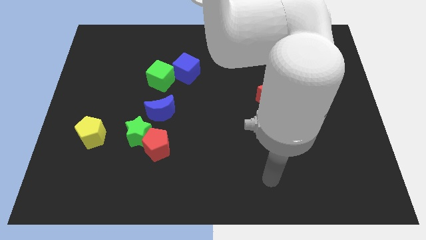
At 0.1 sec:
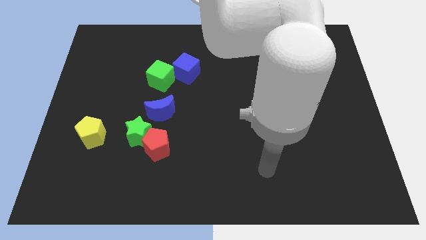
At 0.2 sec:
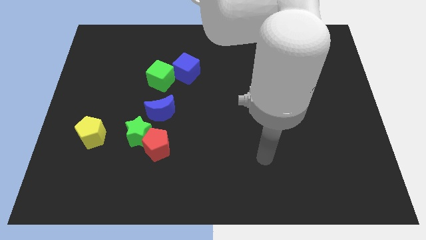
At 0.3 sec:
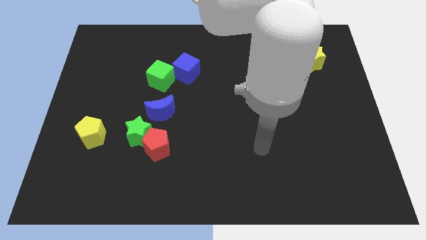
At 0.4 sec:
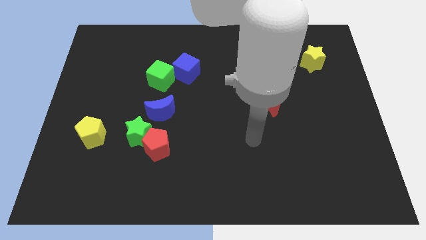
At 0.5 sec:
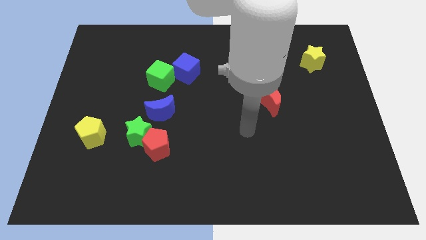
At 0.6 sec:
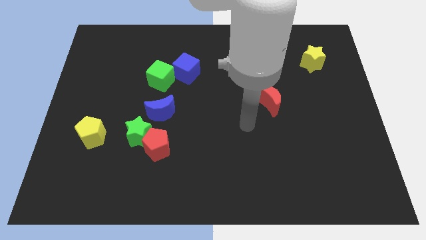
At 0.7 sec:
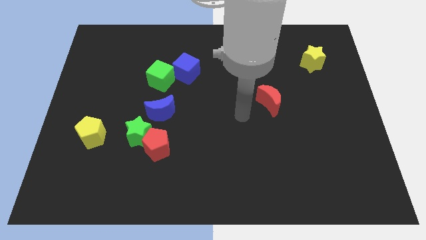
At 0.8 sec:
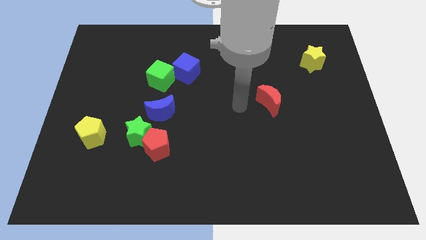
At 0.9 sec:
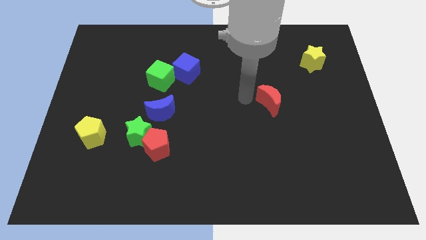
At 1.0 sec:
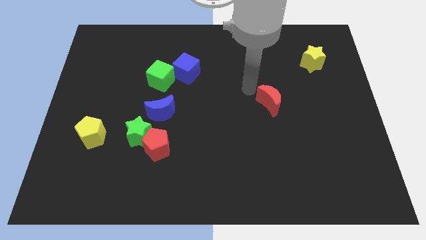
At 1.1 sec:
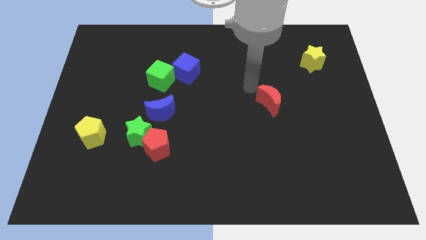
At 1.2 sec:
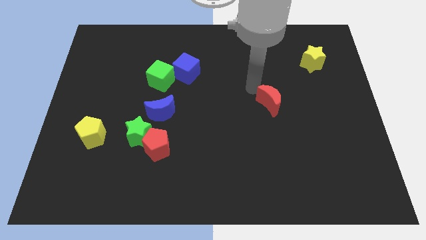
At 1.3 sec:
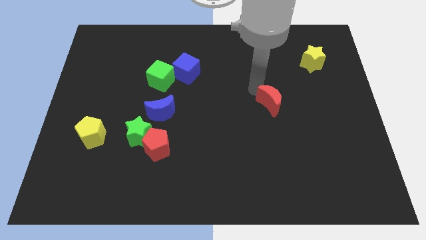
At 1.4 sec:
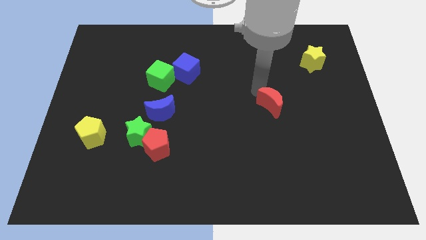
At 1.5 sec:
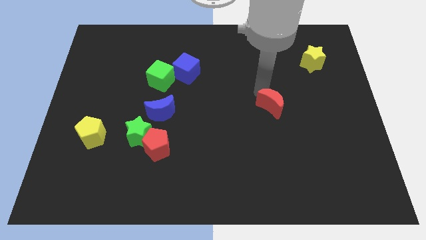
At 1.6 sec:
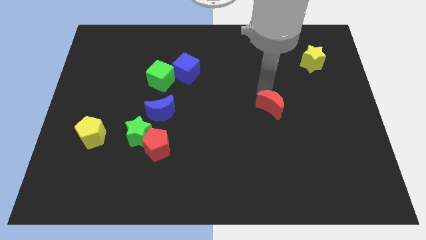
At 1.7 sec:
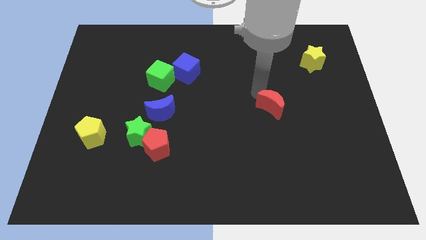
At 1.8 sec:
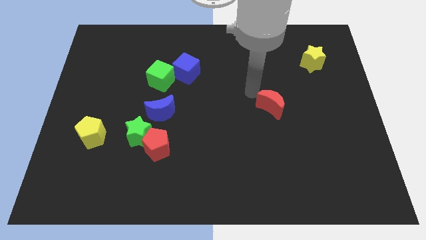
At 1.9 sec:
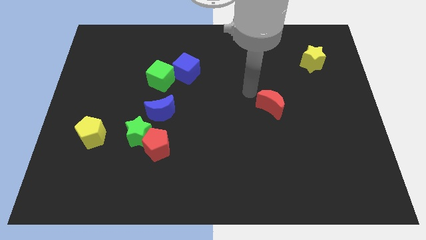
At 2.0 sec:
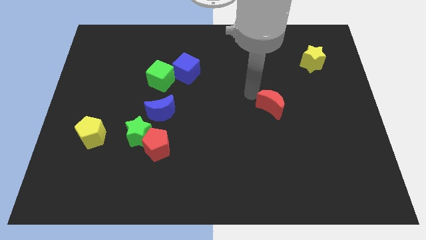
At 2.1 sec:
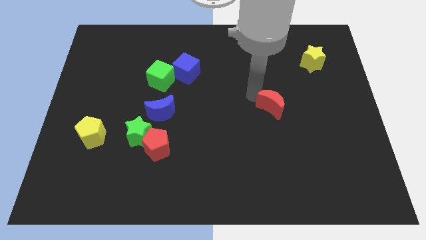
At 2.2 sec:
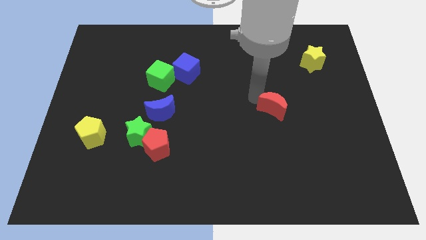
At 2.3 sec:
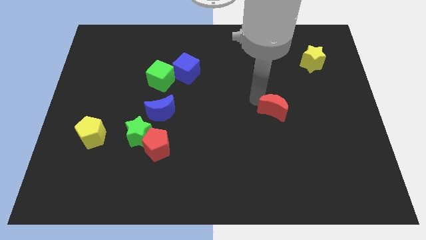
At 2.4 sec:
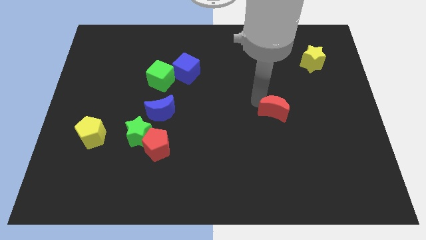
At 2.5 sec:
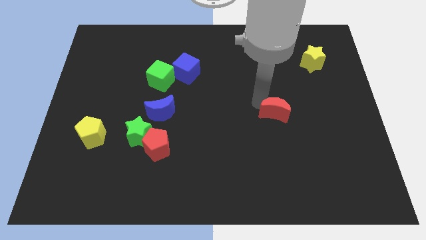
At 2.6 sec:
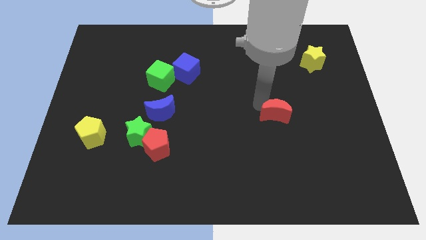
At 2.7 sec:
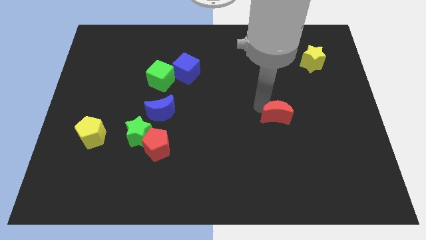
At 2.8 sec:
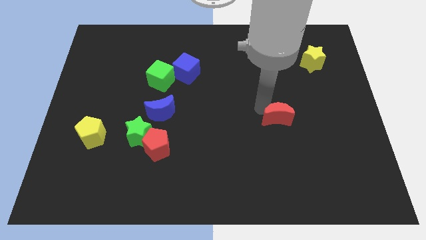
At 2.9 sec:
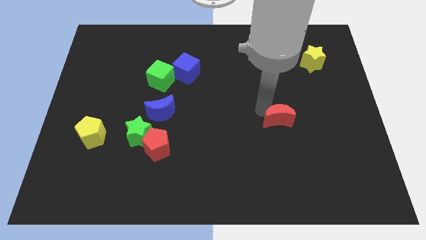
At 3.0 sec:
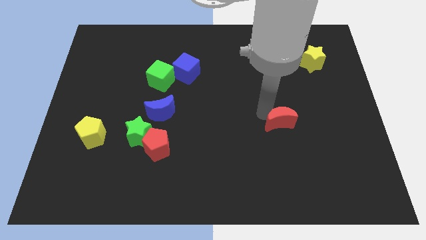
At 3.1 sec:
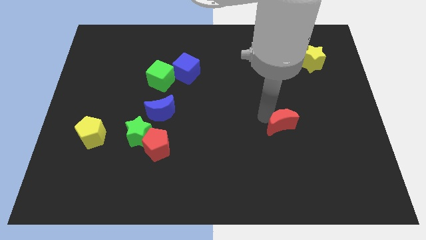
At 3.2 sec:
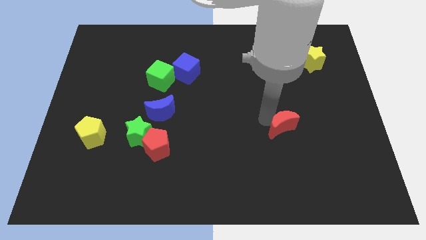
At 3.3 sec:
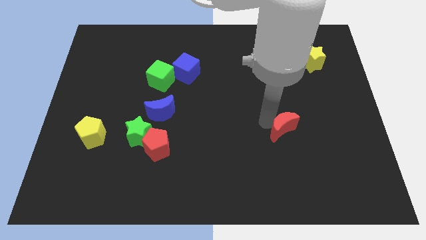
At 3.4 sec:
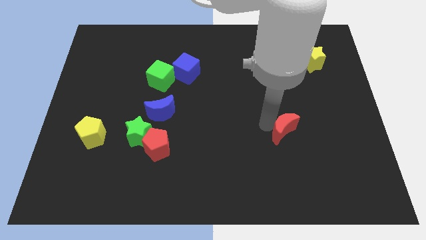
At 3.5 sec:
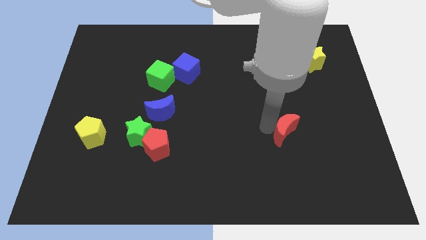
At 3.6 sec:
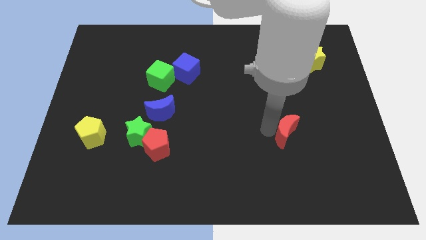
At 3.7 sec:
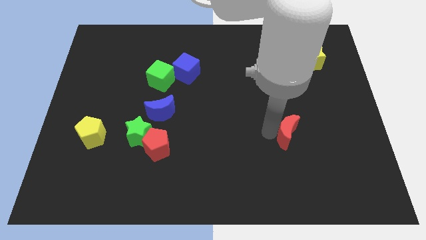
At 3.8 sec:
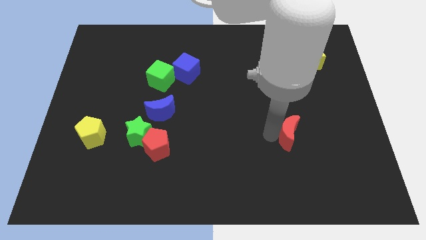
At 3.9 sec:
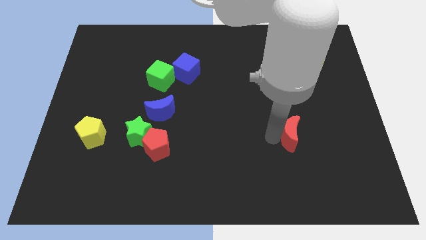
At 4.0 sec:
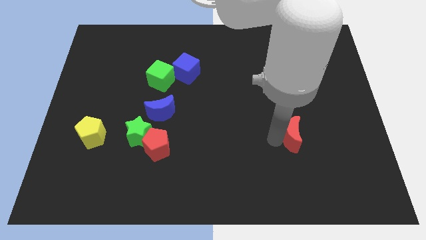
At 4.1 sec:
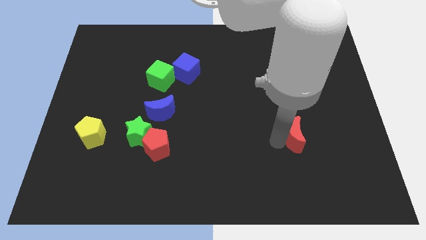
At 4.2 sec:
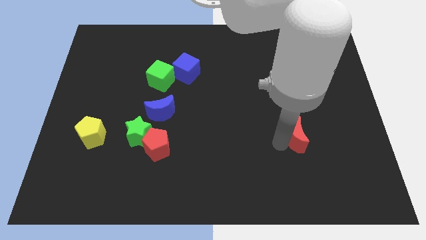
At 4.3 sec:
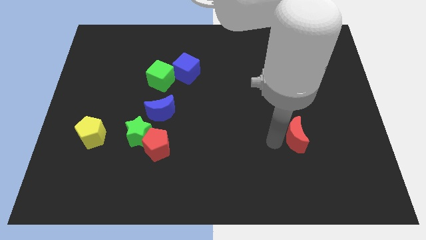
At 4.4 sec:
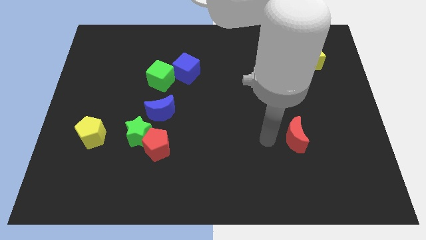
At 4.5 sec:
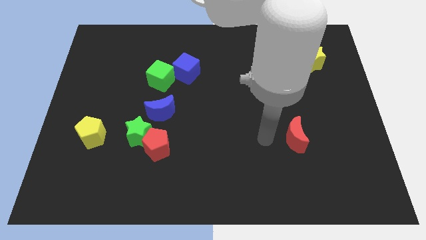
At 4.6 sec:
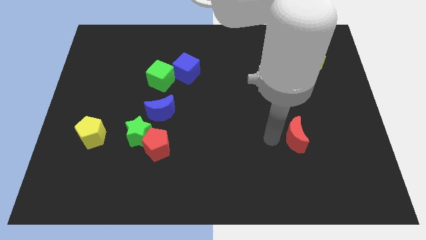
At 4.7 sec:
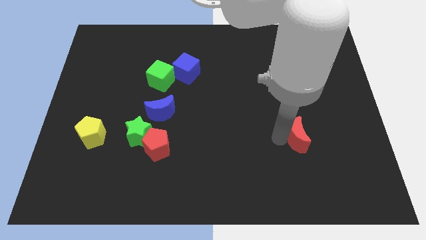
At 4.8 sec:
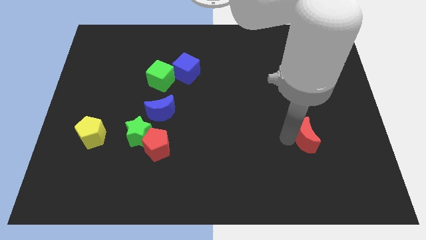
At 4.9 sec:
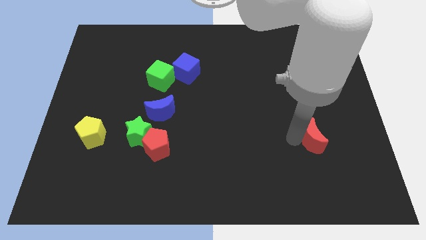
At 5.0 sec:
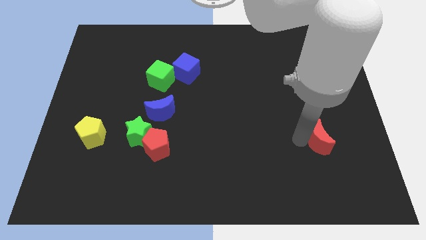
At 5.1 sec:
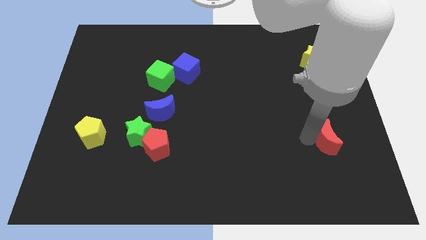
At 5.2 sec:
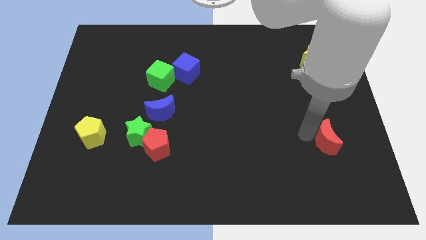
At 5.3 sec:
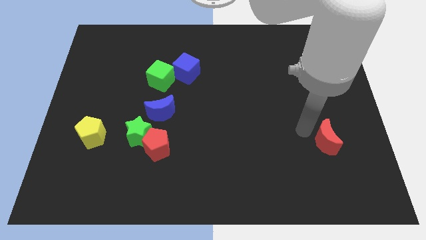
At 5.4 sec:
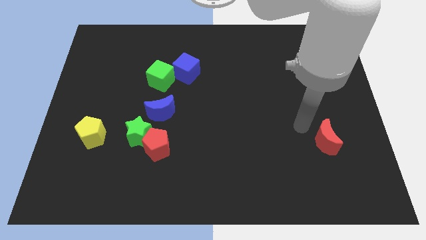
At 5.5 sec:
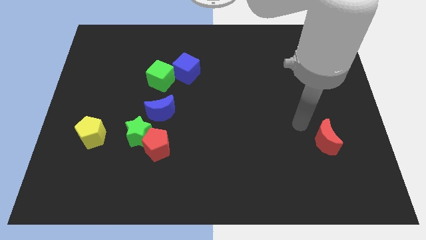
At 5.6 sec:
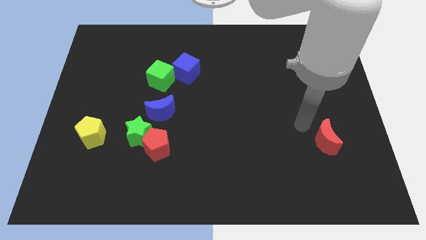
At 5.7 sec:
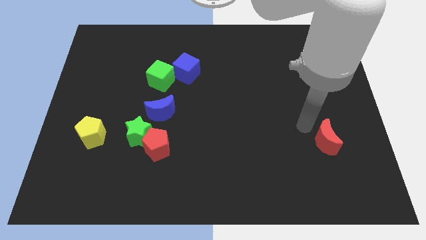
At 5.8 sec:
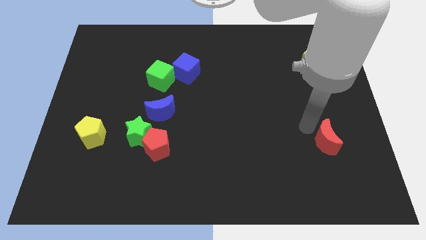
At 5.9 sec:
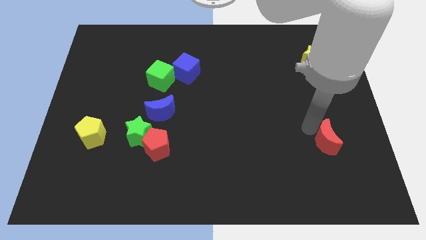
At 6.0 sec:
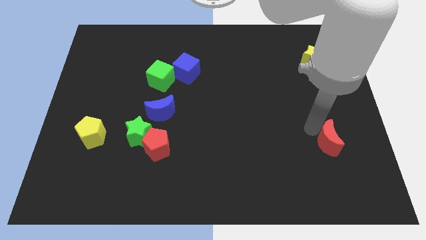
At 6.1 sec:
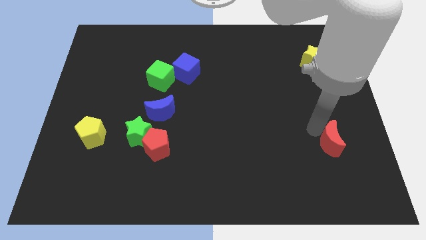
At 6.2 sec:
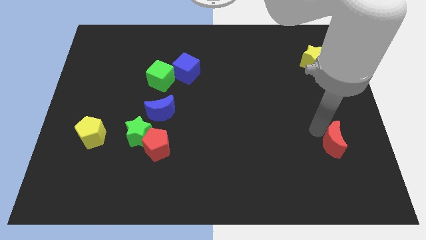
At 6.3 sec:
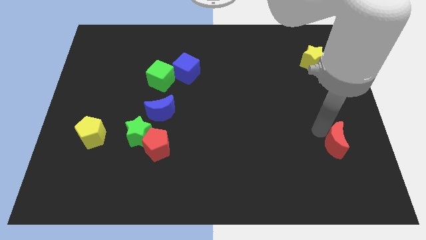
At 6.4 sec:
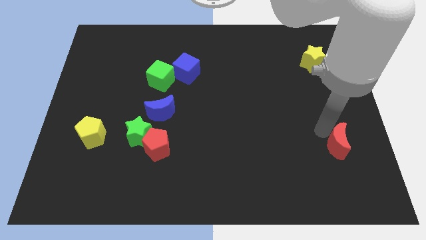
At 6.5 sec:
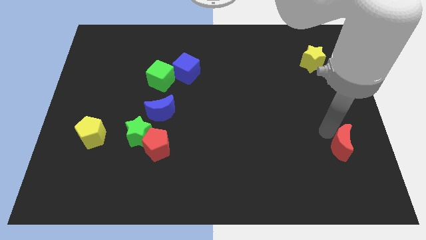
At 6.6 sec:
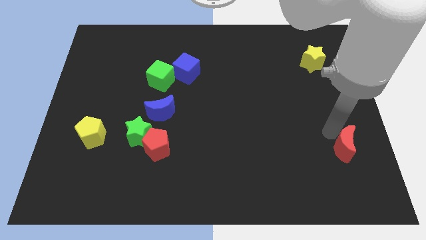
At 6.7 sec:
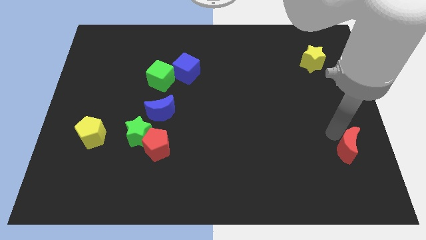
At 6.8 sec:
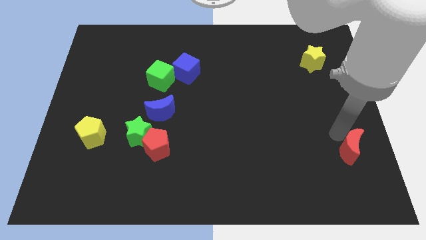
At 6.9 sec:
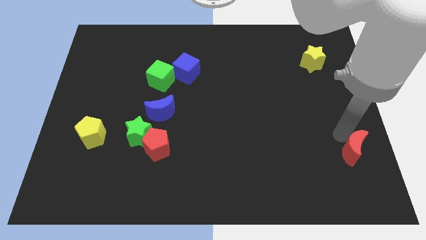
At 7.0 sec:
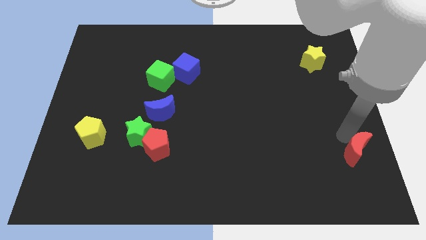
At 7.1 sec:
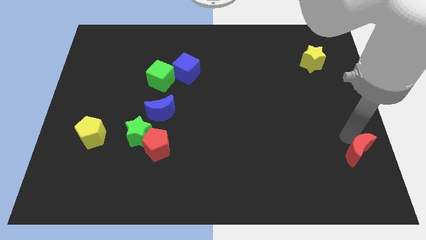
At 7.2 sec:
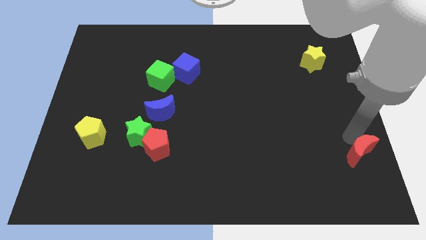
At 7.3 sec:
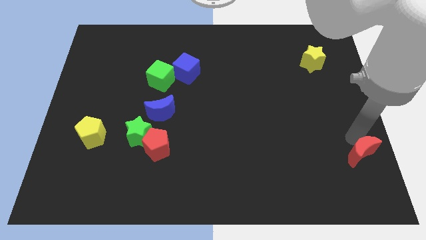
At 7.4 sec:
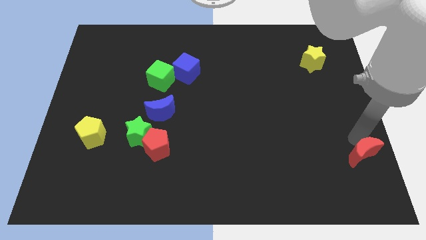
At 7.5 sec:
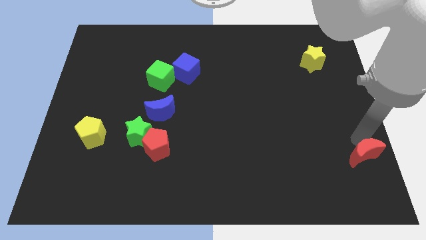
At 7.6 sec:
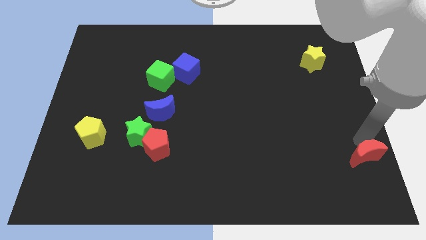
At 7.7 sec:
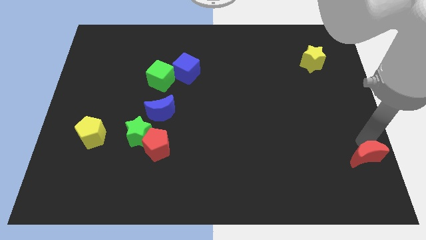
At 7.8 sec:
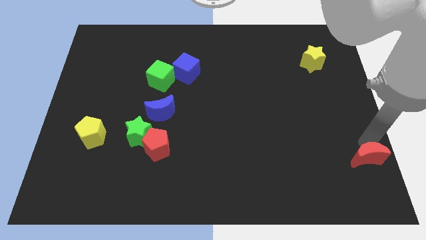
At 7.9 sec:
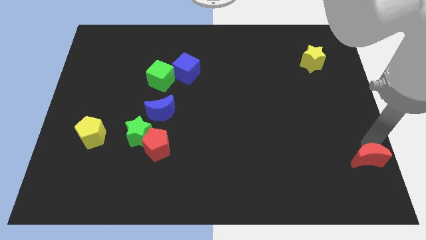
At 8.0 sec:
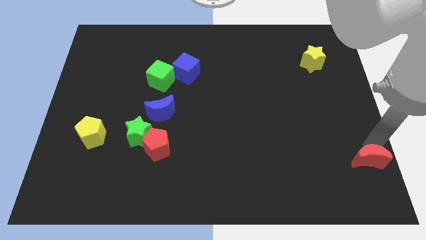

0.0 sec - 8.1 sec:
move the red moon to the lower right corner

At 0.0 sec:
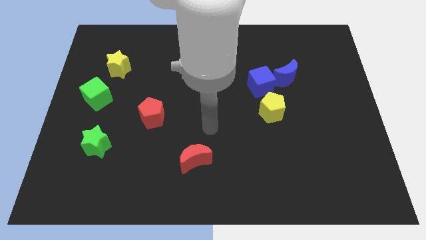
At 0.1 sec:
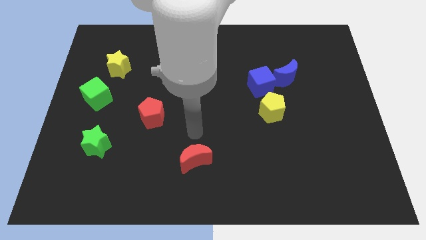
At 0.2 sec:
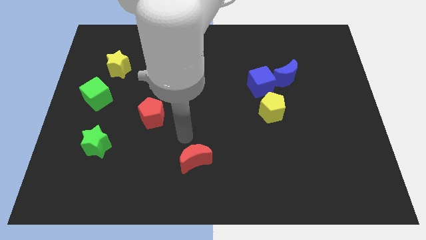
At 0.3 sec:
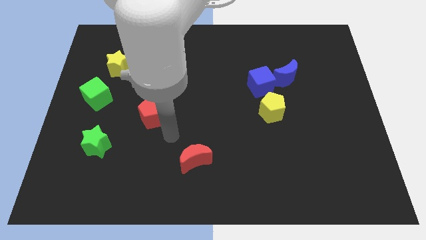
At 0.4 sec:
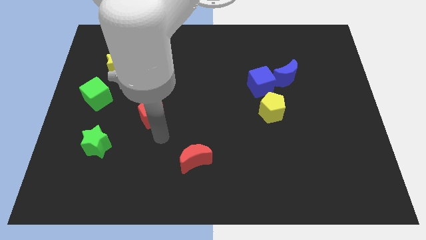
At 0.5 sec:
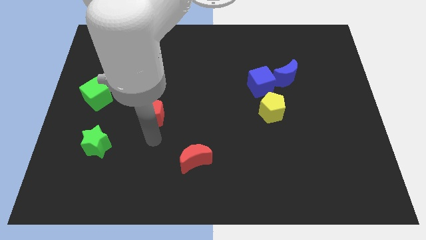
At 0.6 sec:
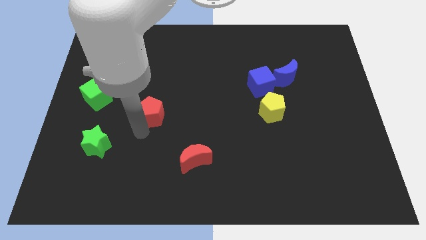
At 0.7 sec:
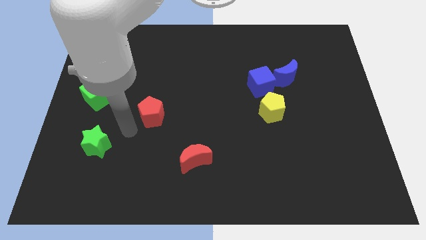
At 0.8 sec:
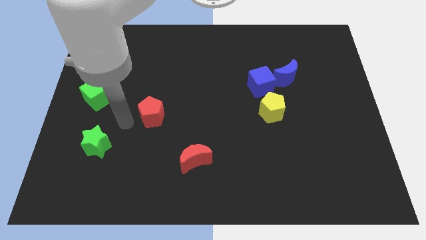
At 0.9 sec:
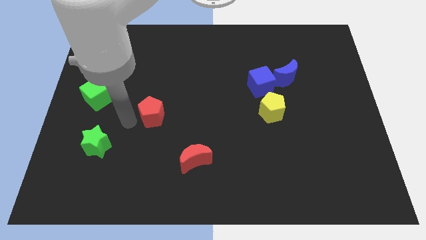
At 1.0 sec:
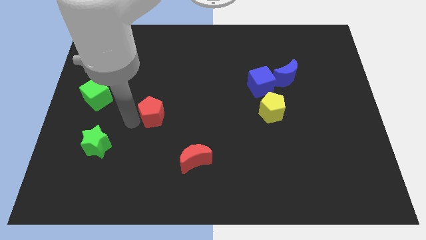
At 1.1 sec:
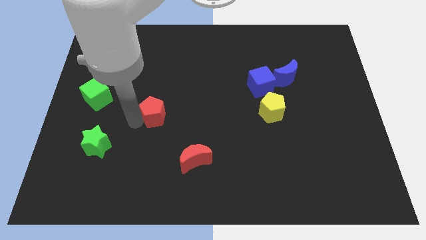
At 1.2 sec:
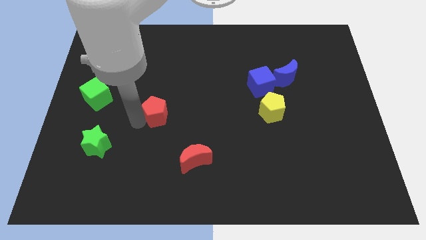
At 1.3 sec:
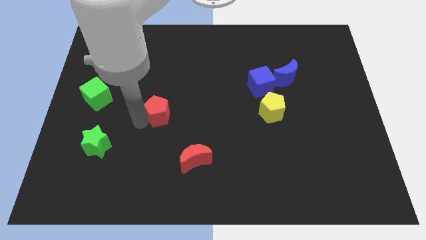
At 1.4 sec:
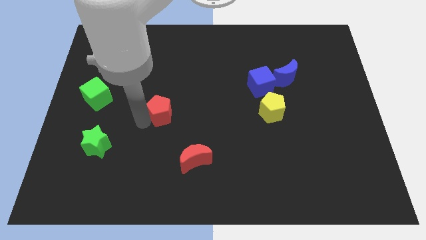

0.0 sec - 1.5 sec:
slide the red pentagon to the middle
